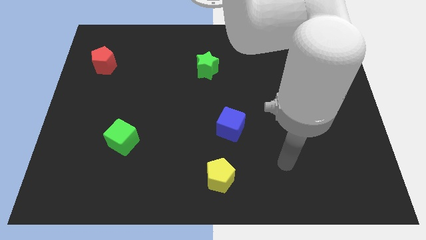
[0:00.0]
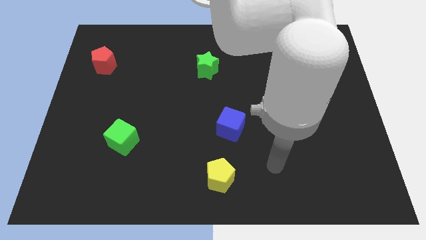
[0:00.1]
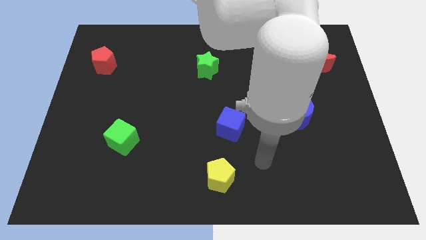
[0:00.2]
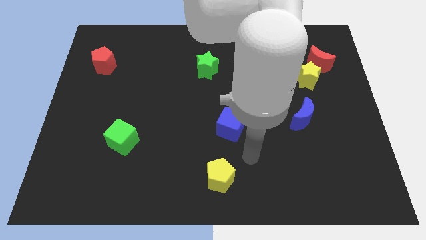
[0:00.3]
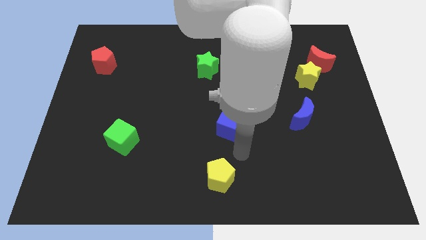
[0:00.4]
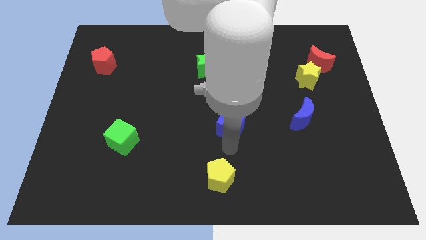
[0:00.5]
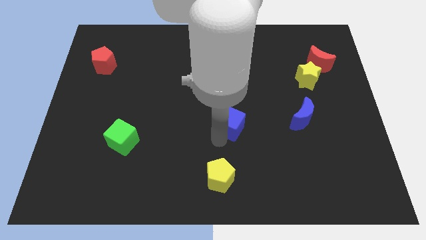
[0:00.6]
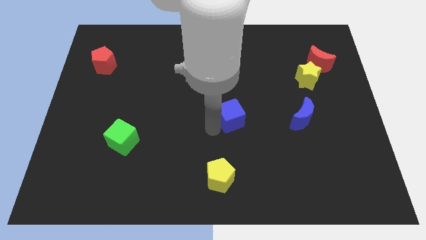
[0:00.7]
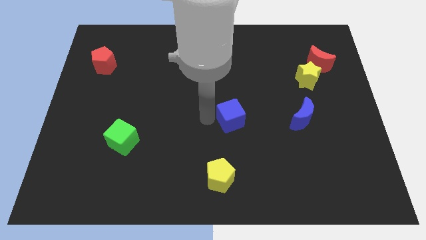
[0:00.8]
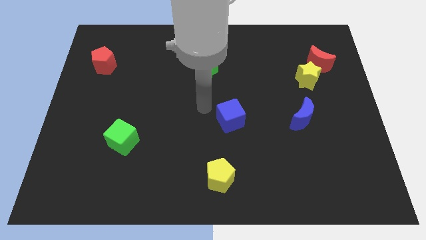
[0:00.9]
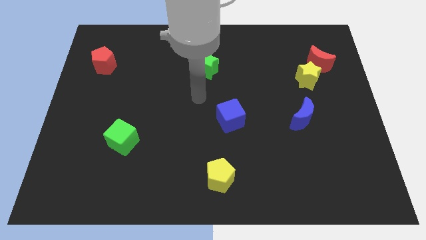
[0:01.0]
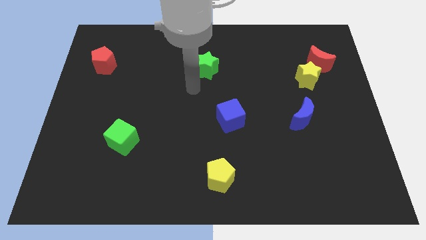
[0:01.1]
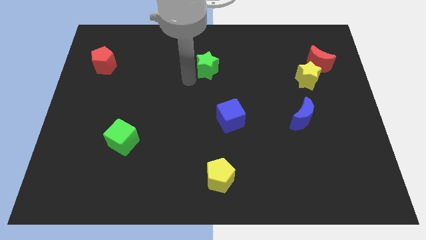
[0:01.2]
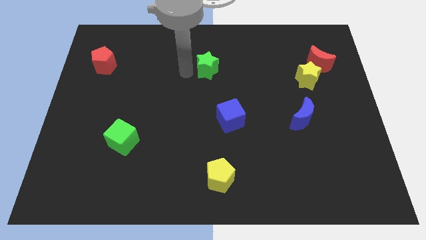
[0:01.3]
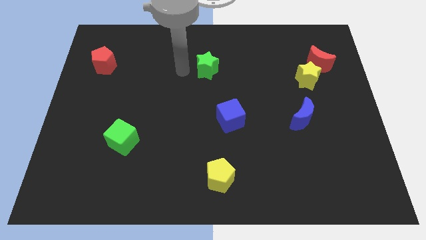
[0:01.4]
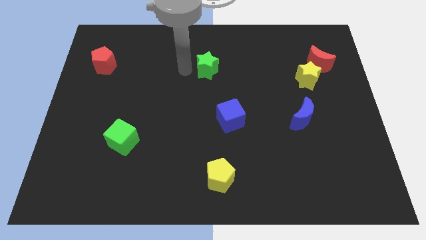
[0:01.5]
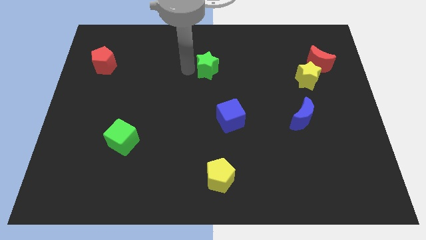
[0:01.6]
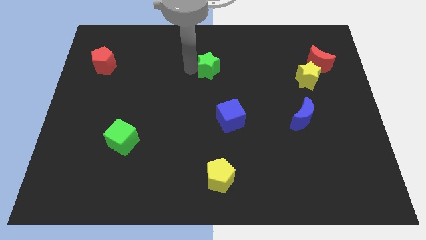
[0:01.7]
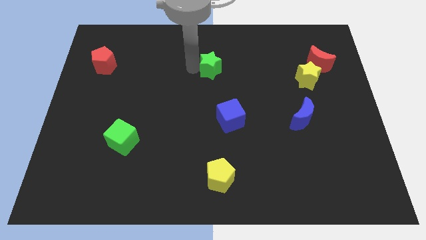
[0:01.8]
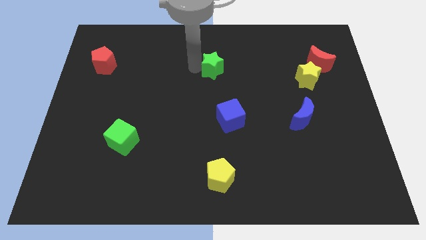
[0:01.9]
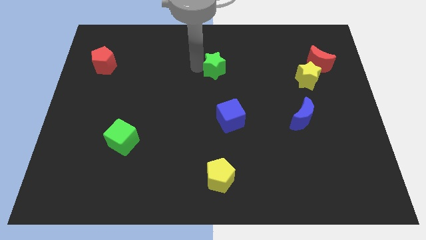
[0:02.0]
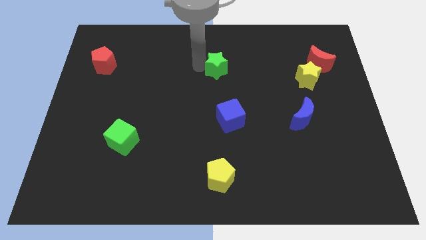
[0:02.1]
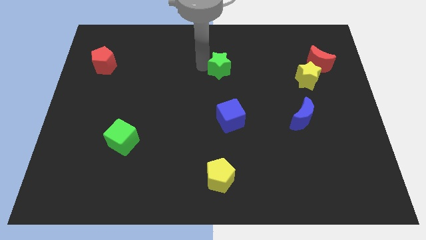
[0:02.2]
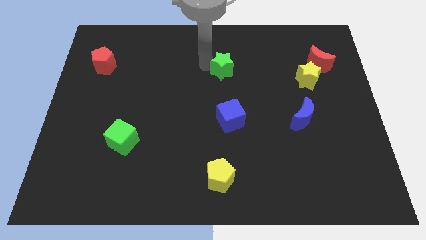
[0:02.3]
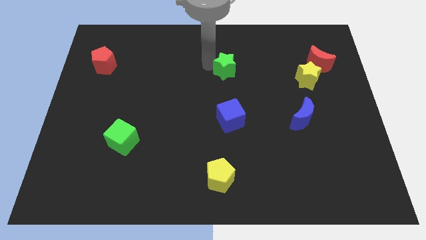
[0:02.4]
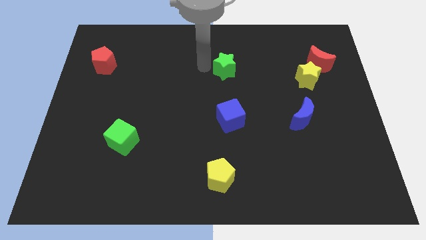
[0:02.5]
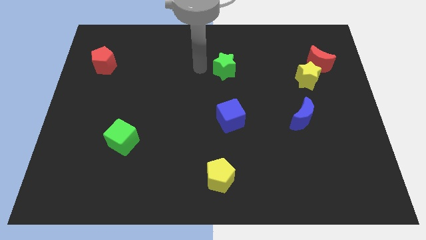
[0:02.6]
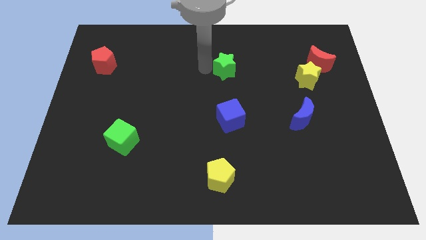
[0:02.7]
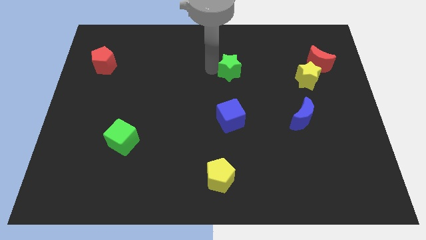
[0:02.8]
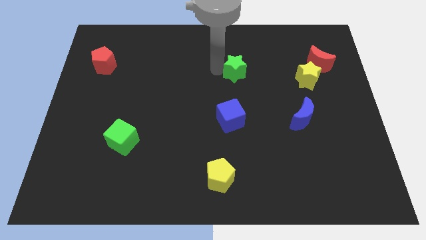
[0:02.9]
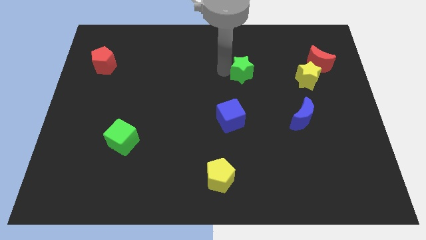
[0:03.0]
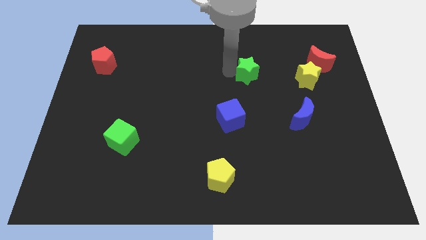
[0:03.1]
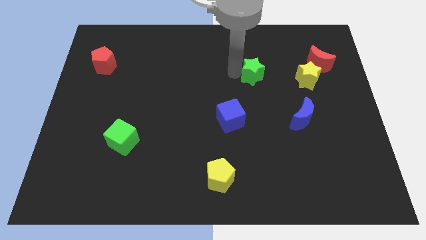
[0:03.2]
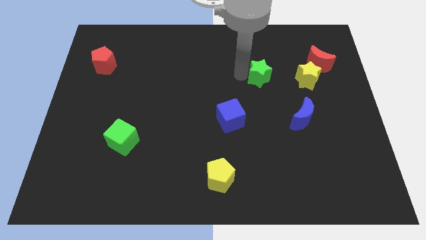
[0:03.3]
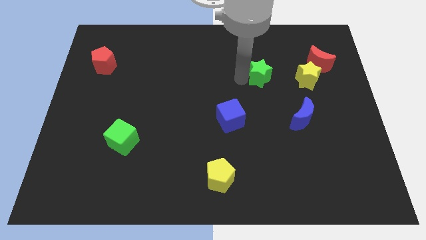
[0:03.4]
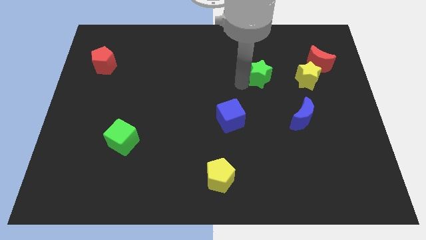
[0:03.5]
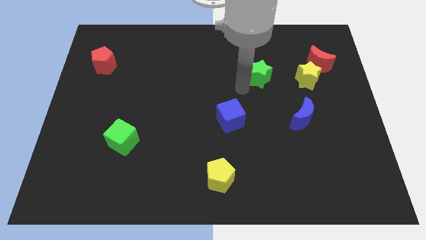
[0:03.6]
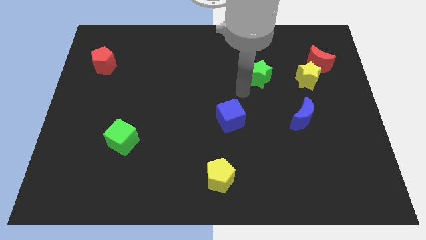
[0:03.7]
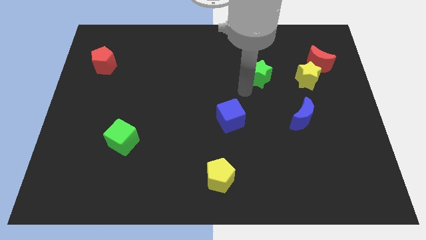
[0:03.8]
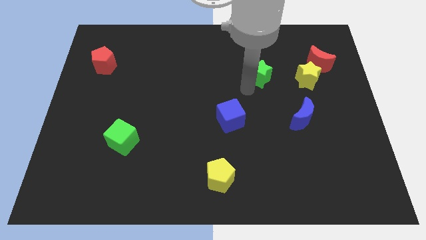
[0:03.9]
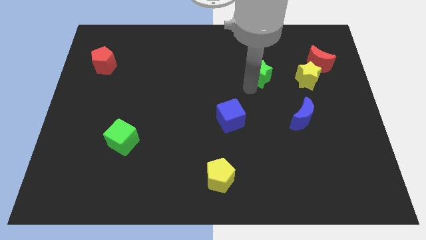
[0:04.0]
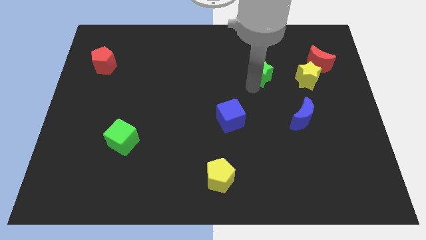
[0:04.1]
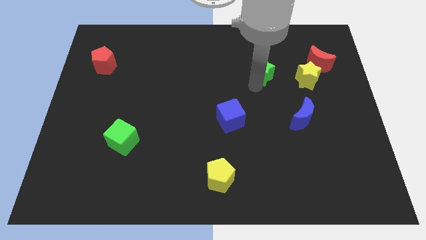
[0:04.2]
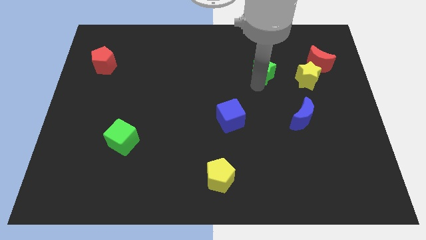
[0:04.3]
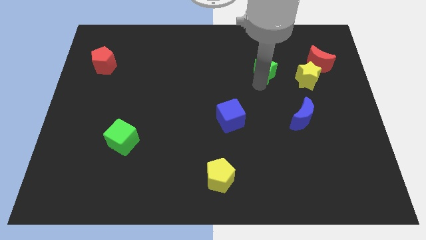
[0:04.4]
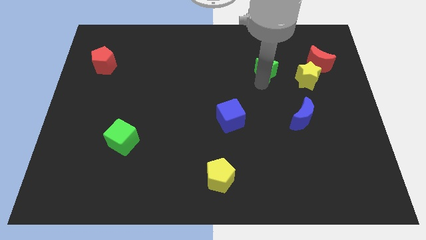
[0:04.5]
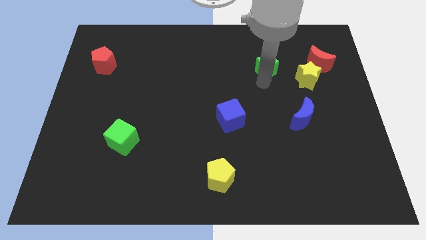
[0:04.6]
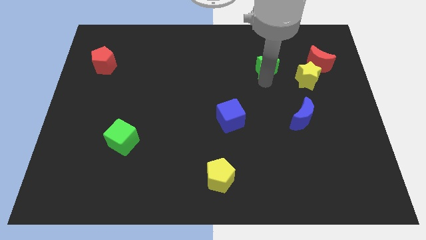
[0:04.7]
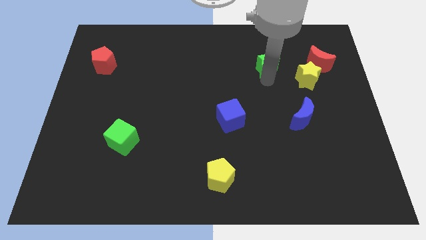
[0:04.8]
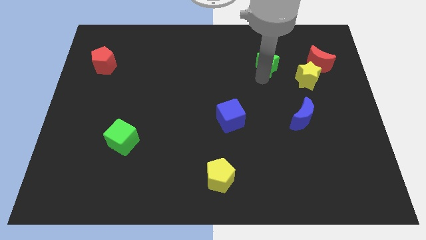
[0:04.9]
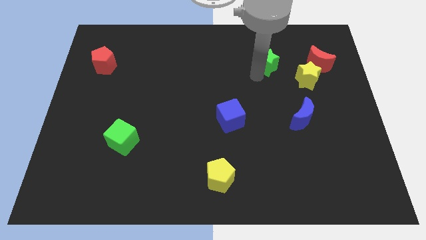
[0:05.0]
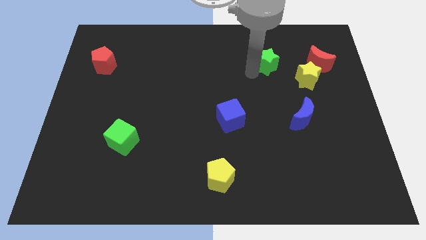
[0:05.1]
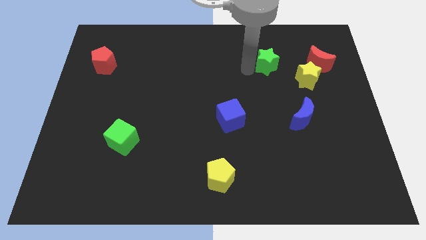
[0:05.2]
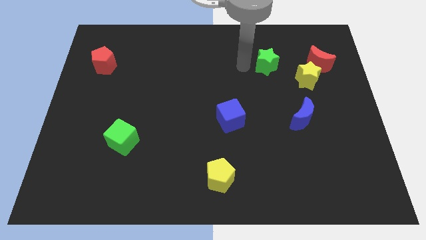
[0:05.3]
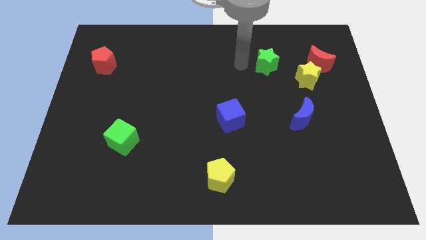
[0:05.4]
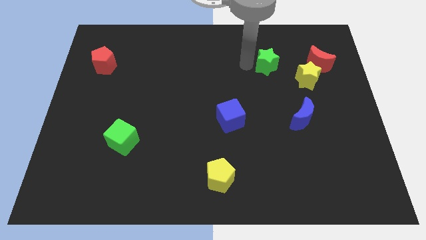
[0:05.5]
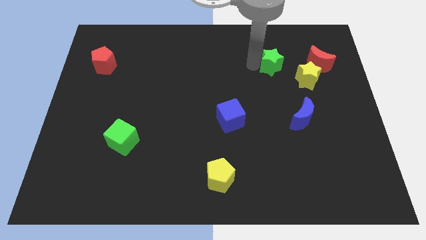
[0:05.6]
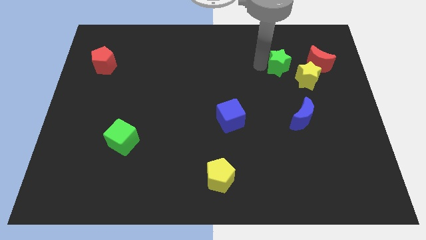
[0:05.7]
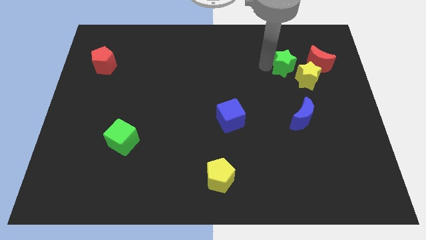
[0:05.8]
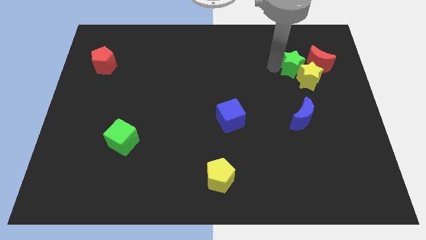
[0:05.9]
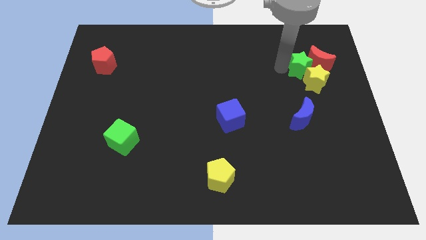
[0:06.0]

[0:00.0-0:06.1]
slide the green star close to the red moon

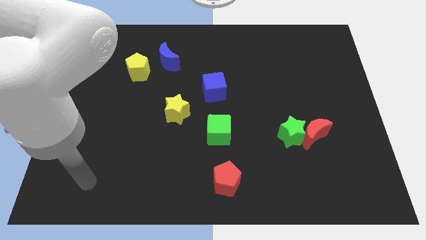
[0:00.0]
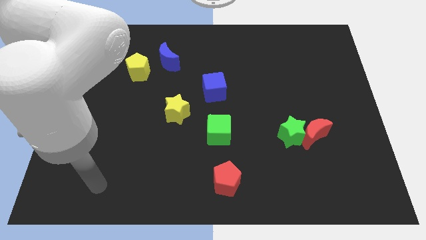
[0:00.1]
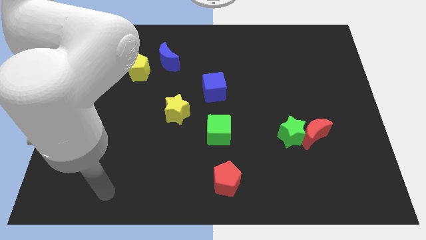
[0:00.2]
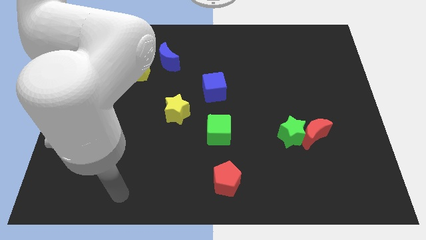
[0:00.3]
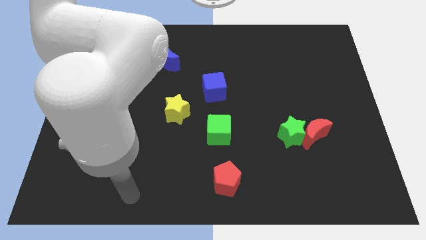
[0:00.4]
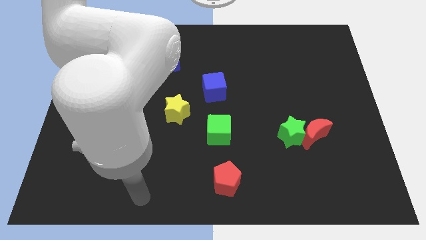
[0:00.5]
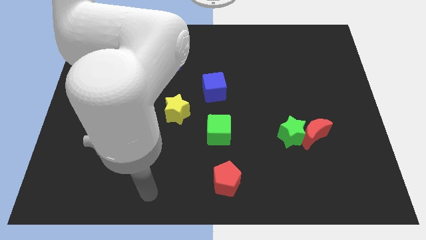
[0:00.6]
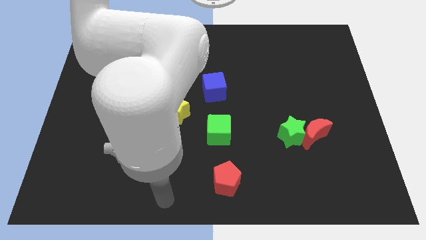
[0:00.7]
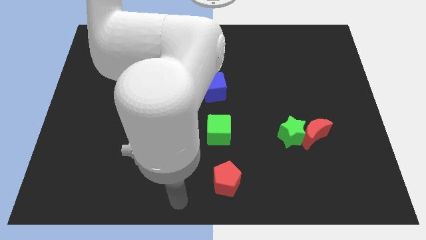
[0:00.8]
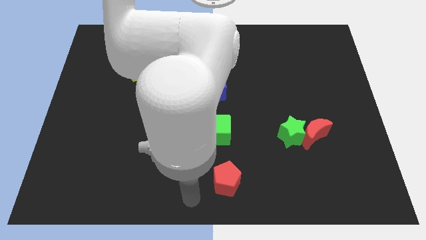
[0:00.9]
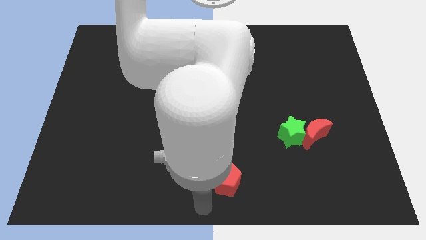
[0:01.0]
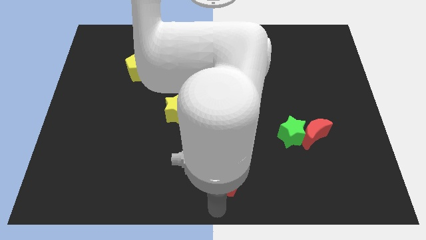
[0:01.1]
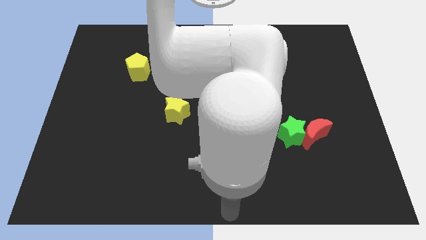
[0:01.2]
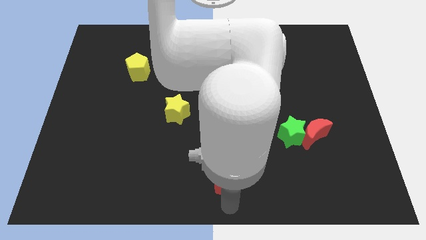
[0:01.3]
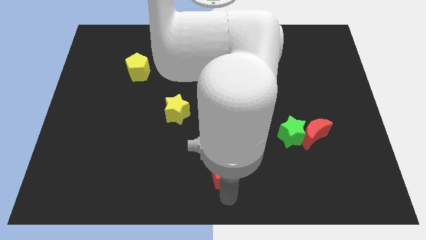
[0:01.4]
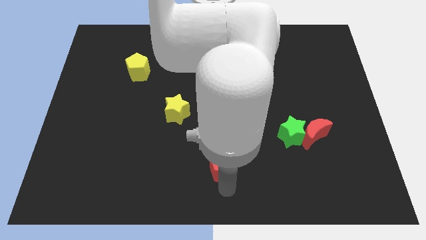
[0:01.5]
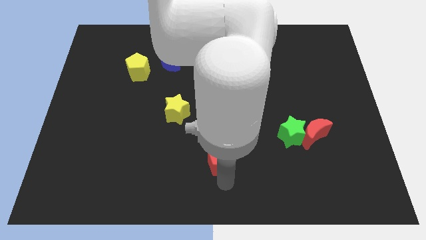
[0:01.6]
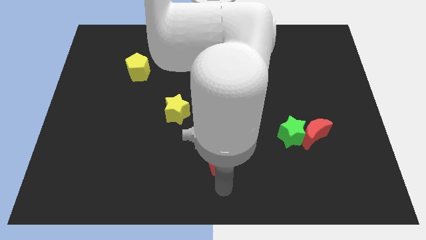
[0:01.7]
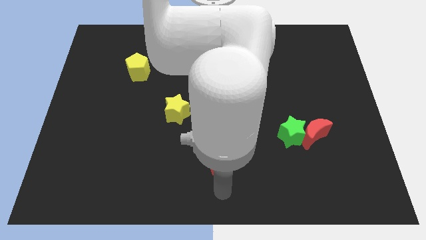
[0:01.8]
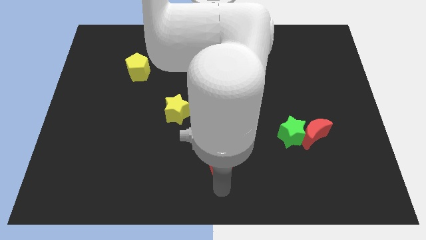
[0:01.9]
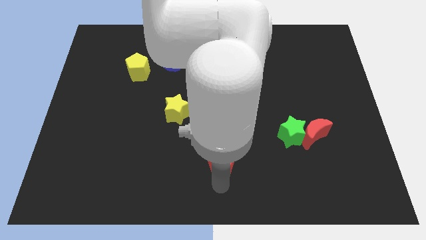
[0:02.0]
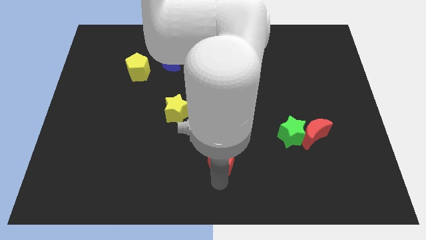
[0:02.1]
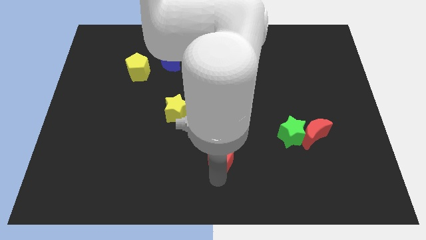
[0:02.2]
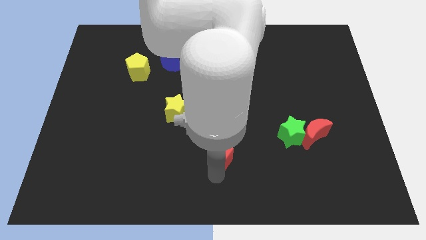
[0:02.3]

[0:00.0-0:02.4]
slide the red pentagon next to the green cube
